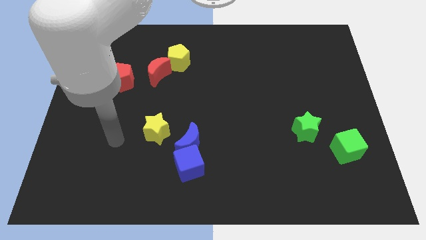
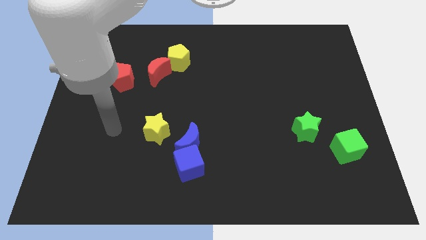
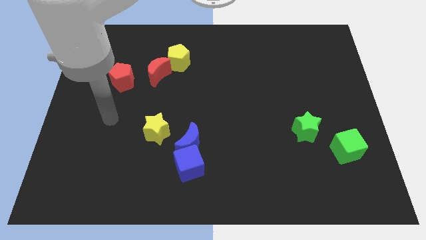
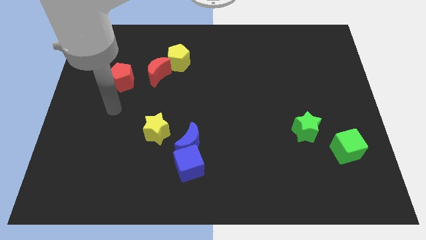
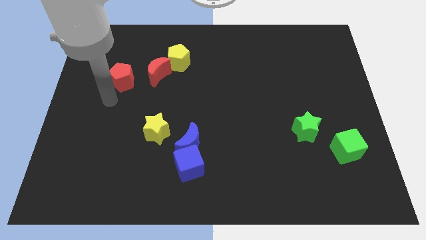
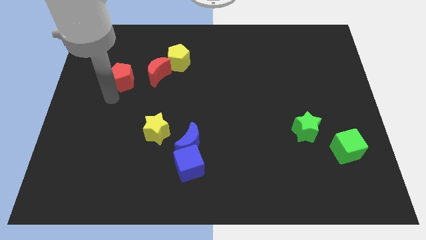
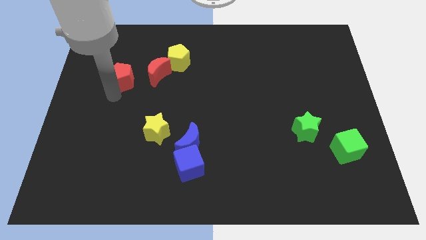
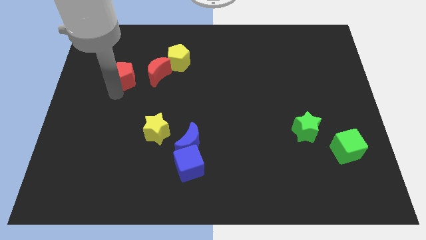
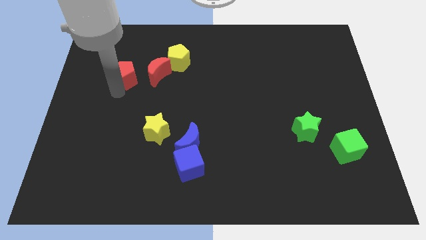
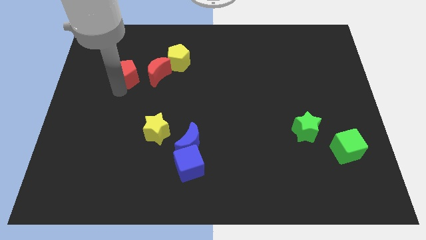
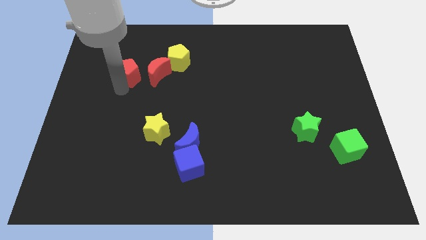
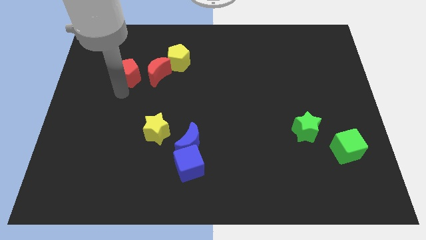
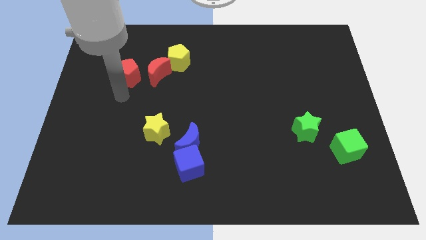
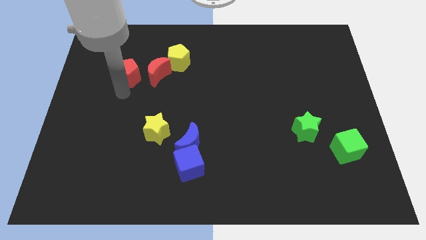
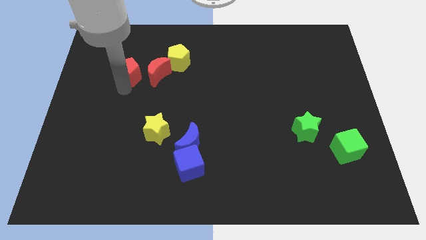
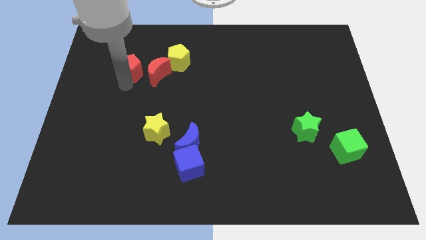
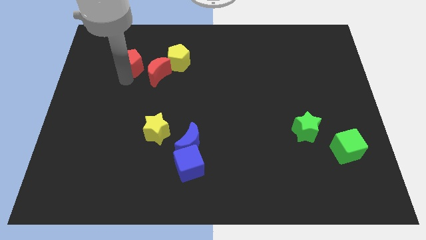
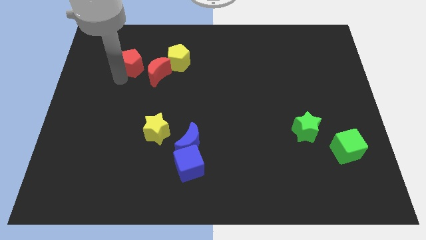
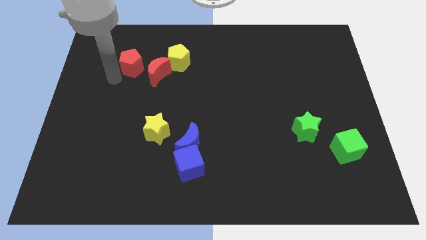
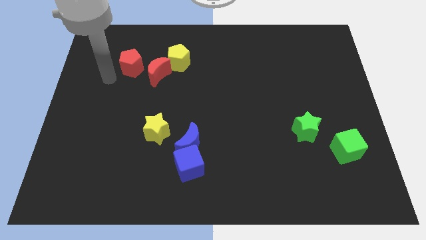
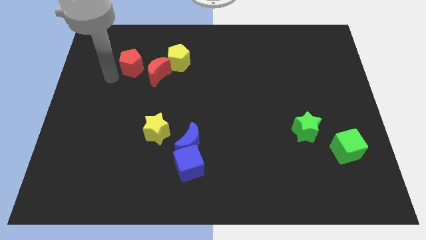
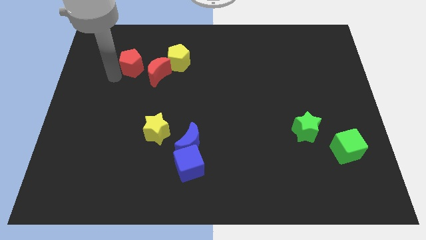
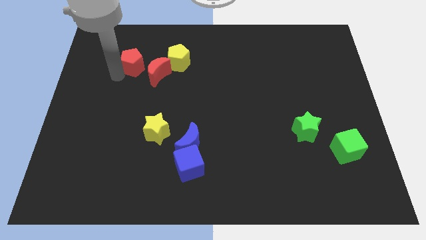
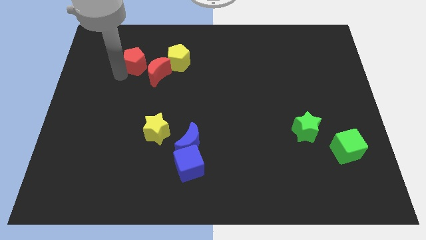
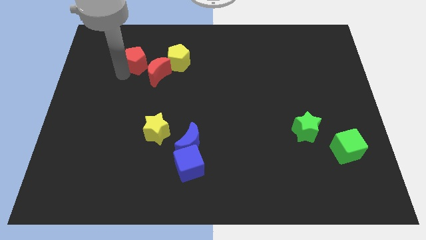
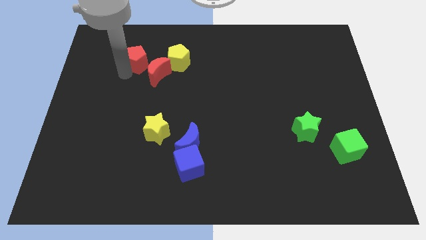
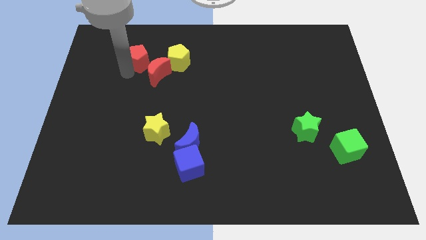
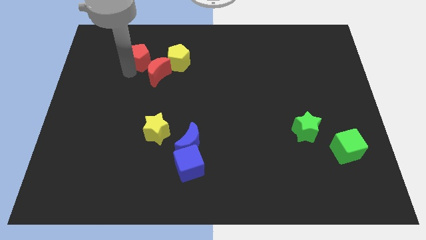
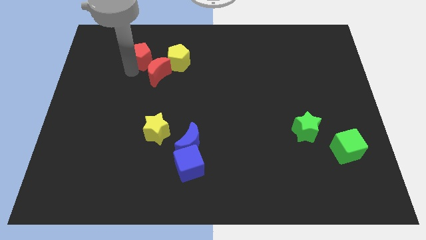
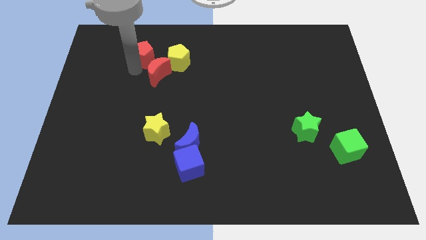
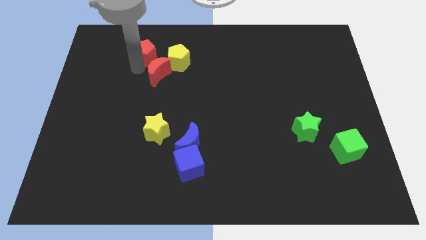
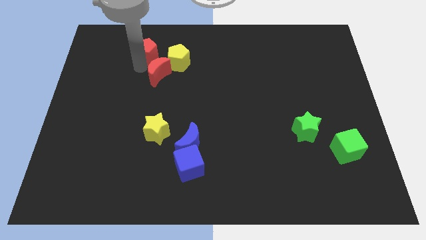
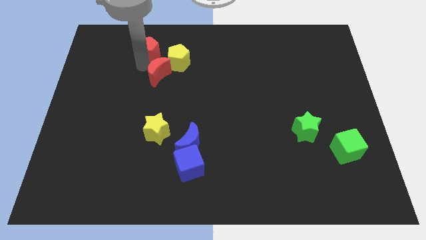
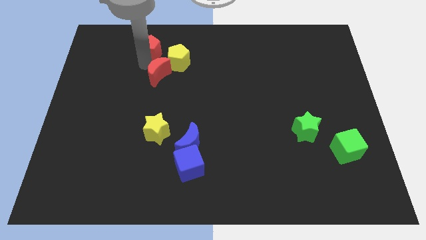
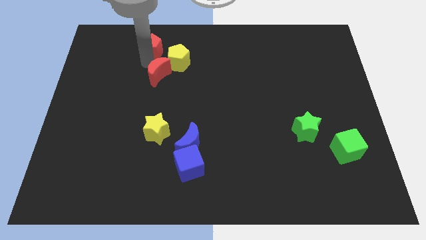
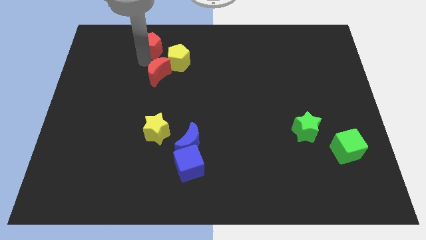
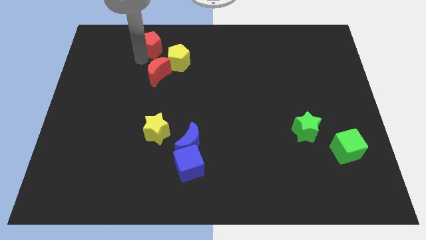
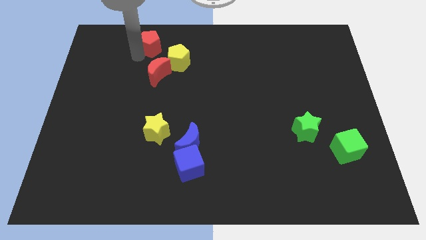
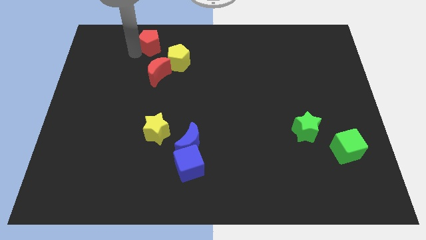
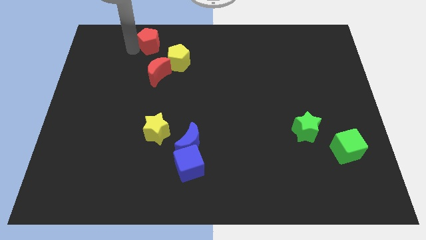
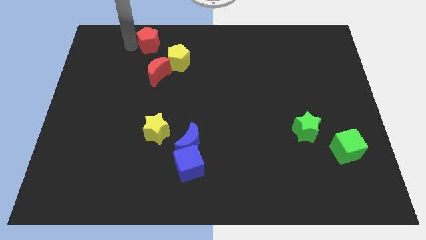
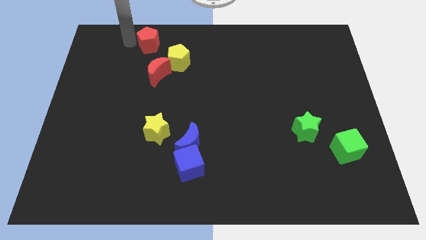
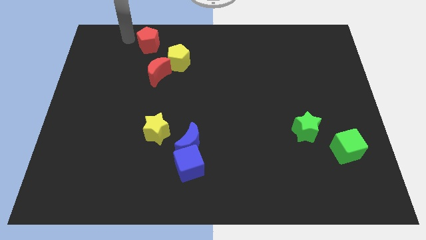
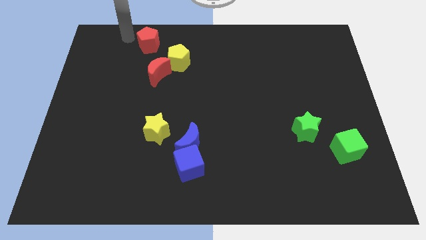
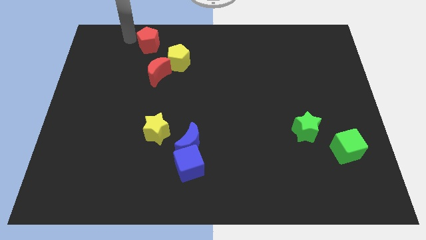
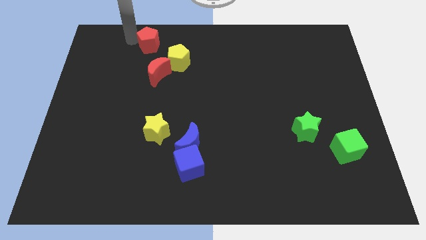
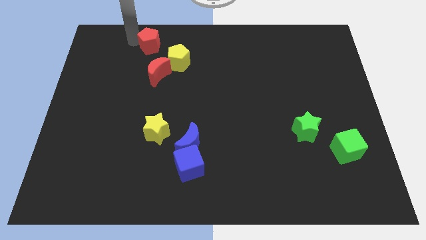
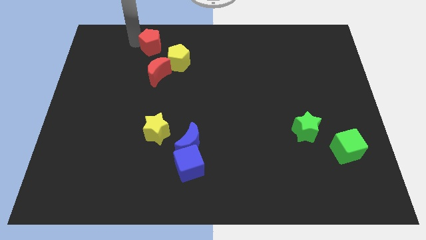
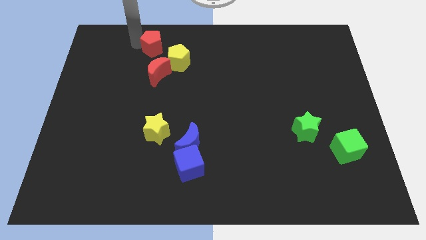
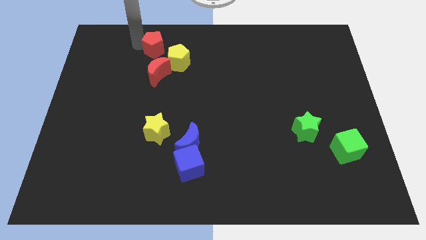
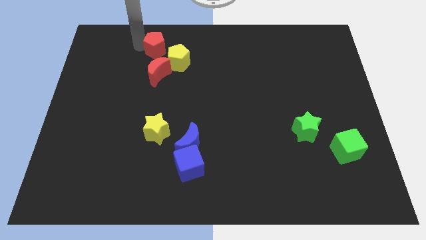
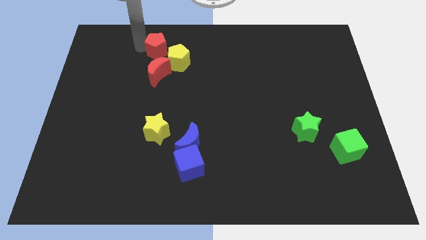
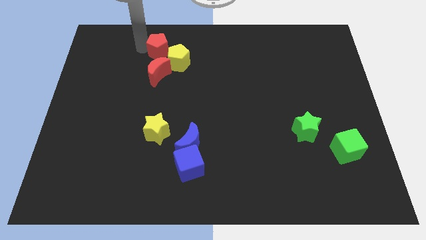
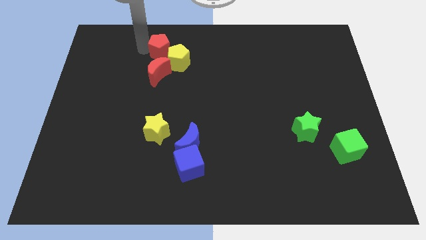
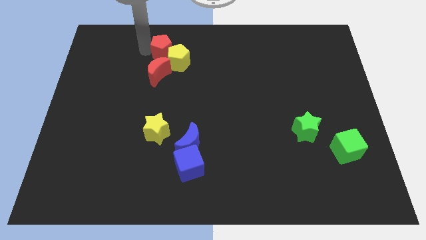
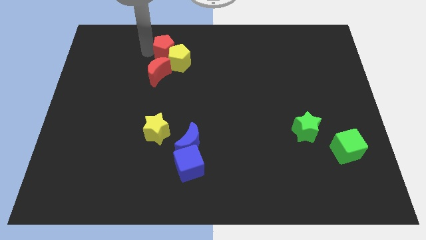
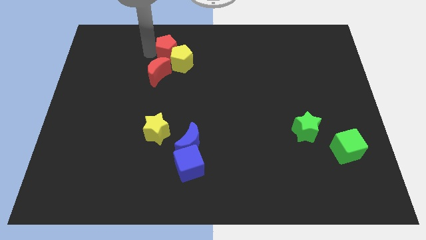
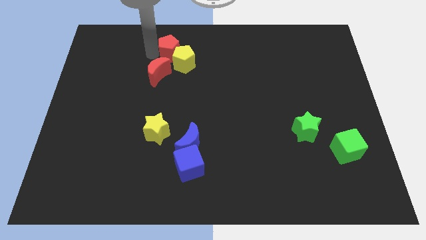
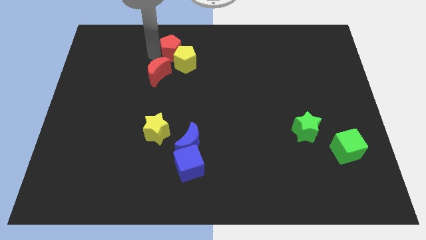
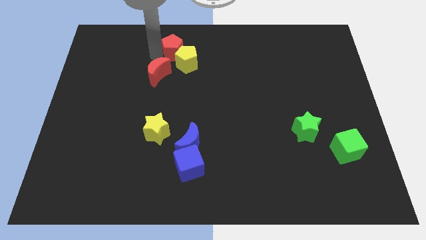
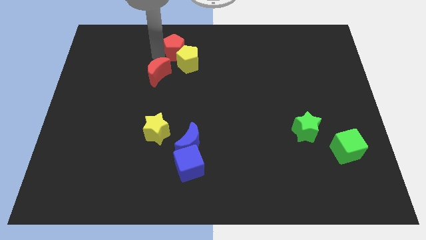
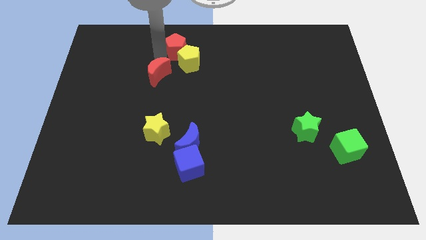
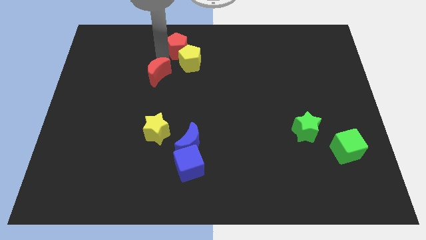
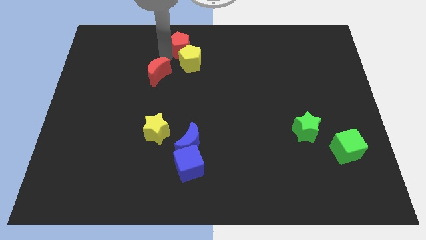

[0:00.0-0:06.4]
push the red pentagon to the top
